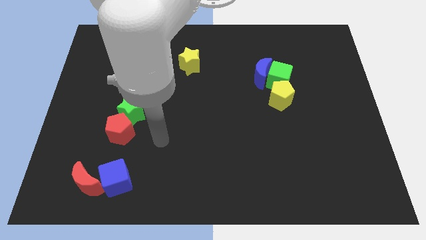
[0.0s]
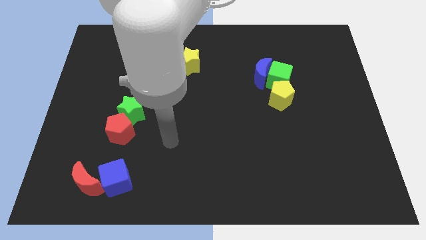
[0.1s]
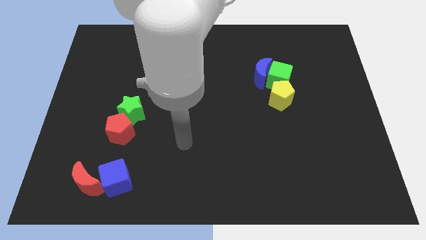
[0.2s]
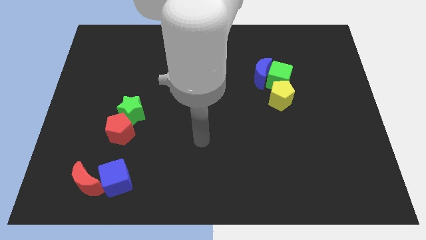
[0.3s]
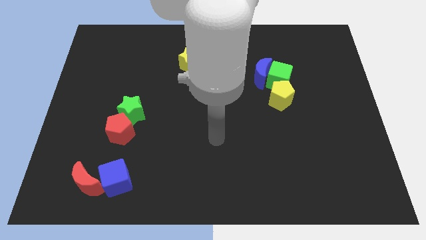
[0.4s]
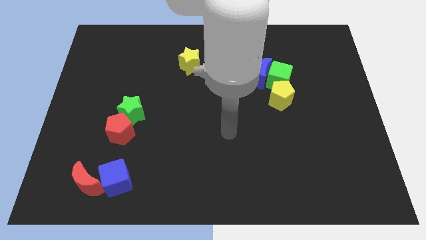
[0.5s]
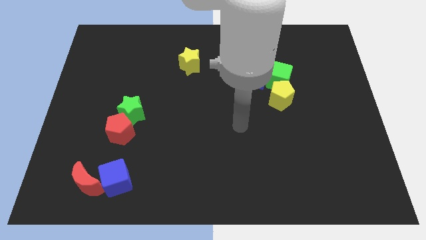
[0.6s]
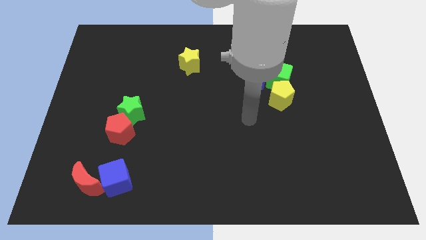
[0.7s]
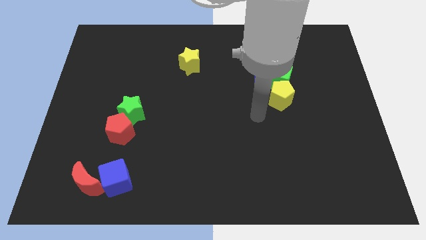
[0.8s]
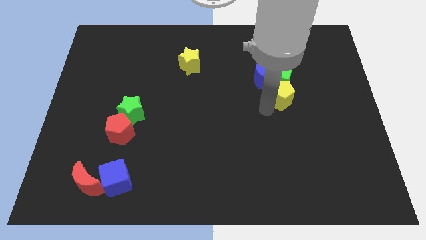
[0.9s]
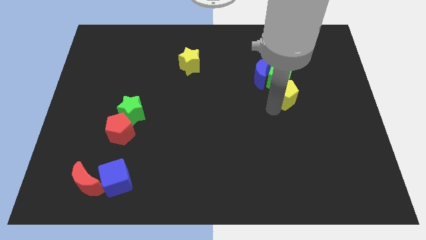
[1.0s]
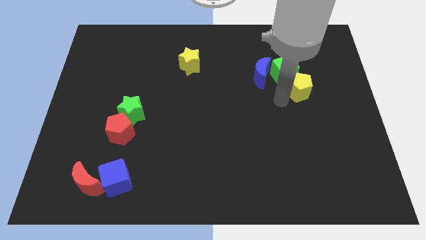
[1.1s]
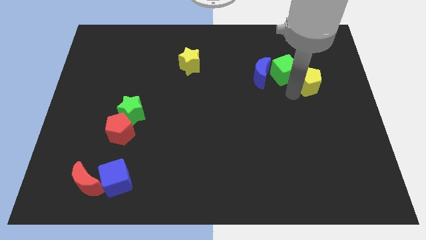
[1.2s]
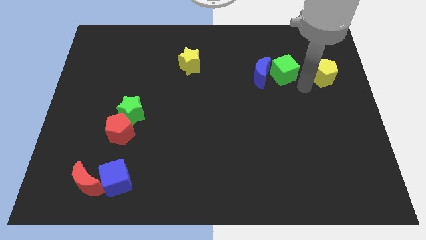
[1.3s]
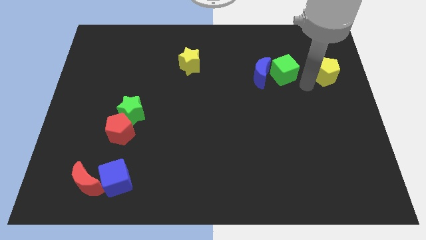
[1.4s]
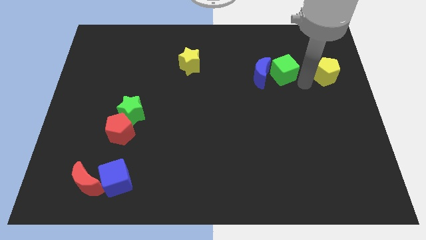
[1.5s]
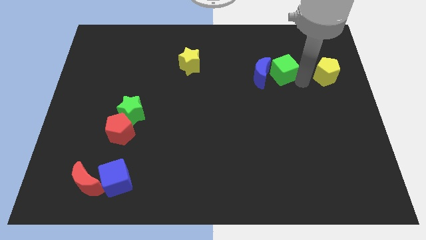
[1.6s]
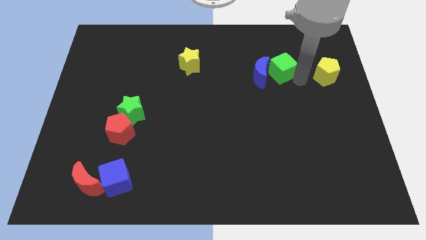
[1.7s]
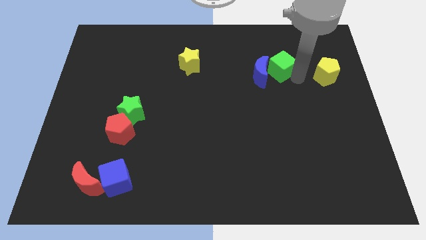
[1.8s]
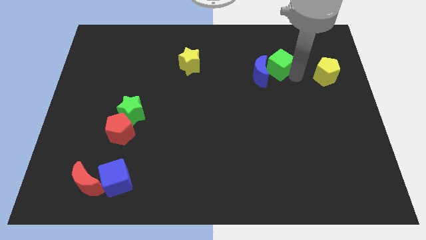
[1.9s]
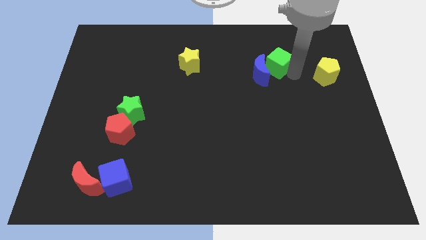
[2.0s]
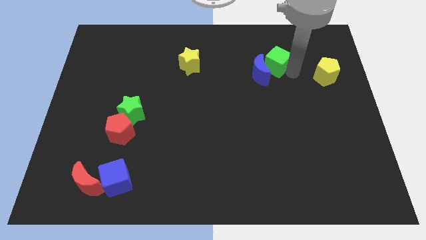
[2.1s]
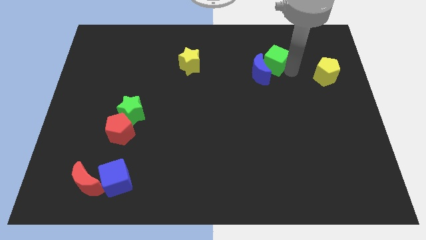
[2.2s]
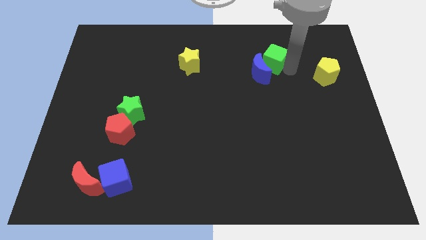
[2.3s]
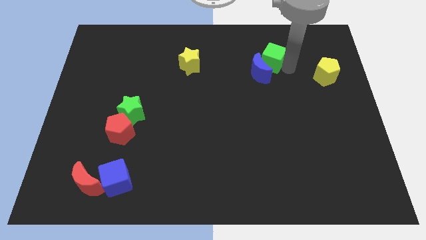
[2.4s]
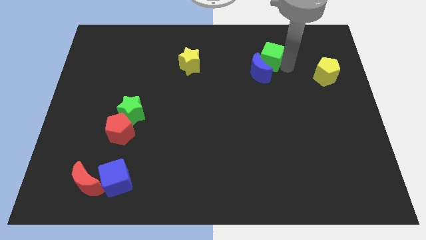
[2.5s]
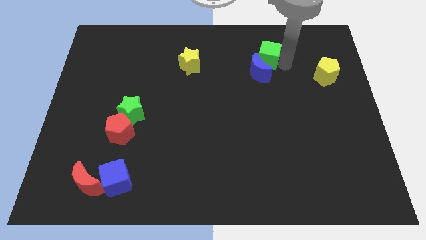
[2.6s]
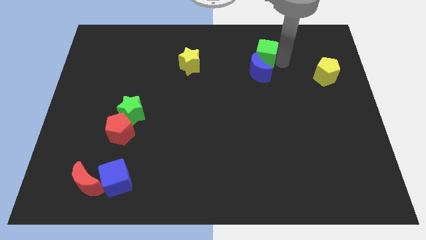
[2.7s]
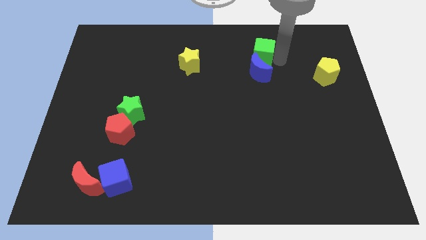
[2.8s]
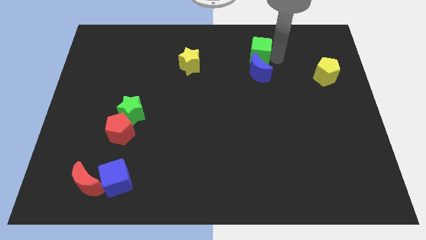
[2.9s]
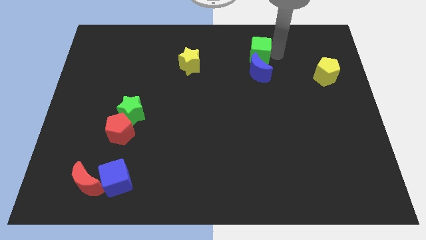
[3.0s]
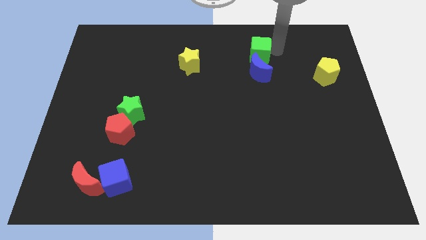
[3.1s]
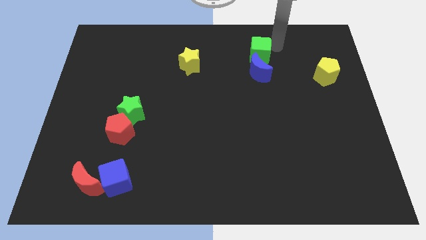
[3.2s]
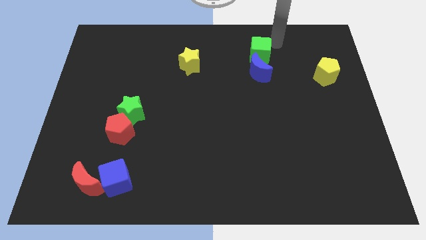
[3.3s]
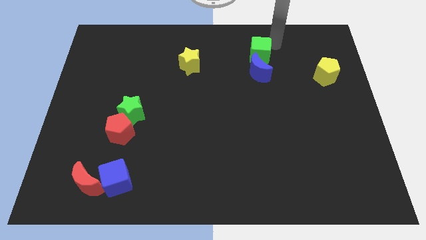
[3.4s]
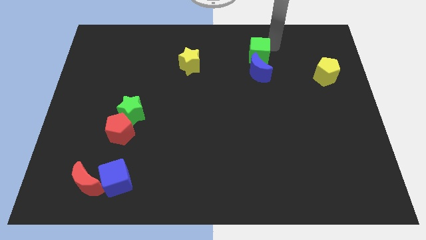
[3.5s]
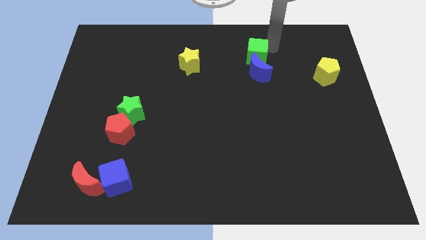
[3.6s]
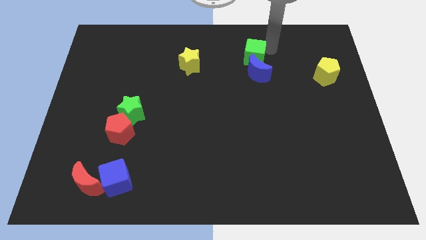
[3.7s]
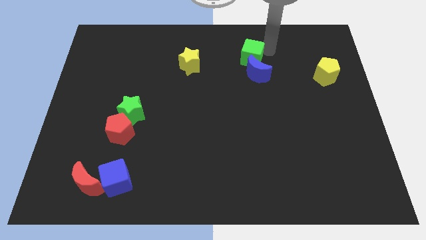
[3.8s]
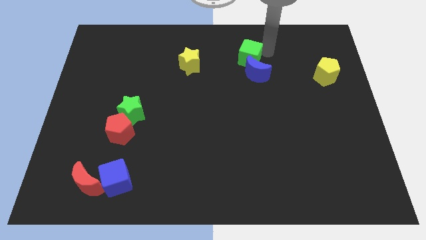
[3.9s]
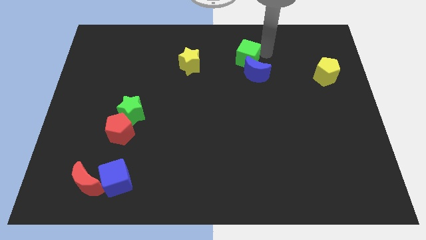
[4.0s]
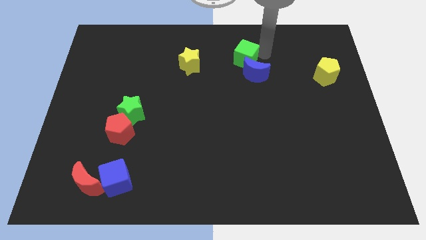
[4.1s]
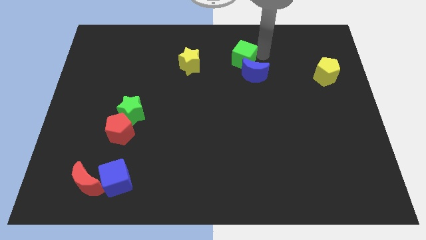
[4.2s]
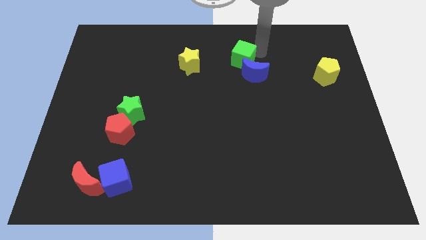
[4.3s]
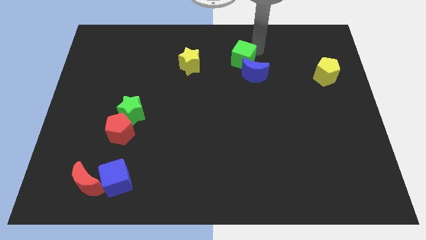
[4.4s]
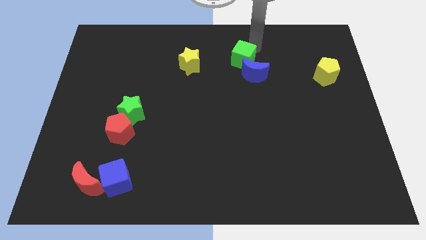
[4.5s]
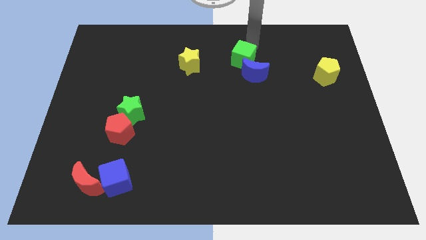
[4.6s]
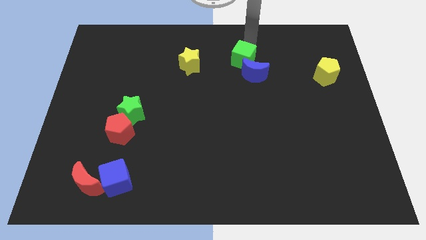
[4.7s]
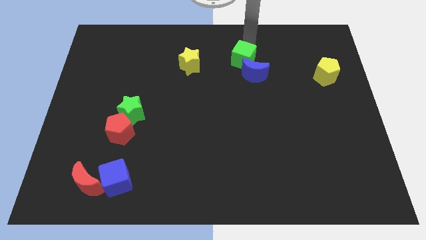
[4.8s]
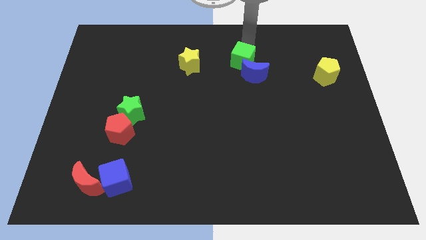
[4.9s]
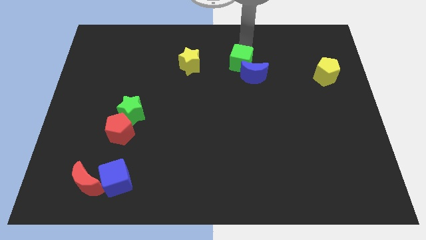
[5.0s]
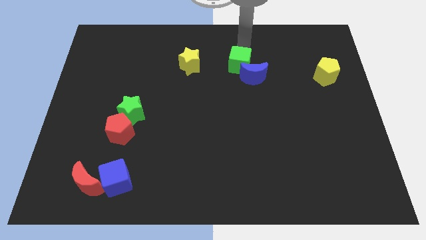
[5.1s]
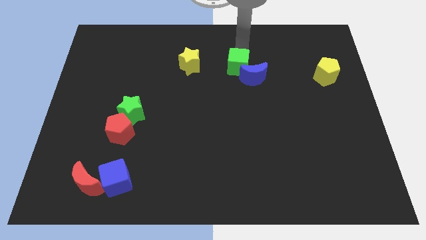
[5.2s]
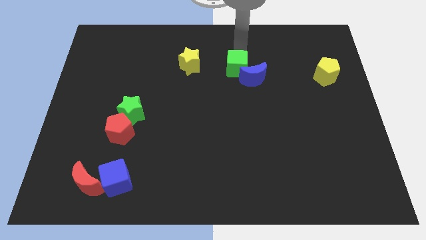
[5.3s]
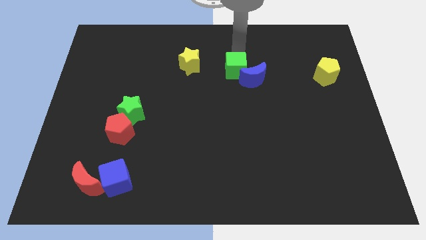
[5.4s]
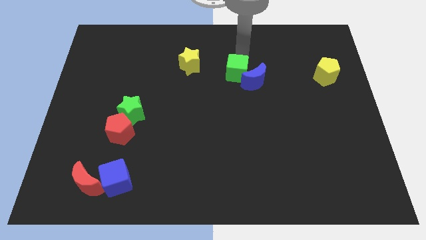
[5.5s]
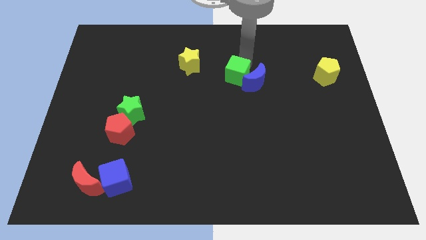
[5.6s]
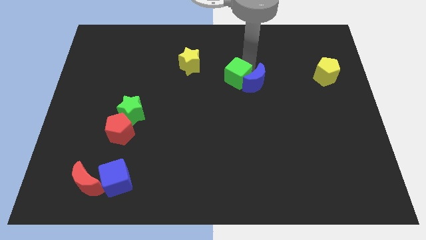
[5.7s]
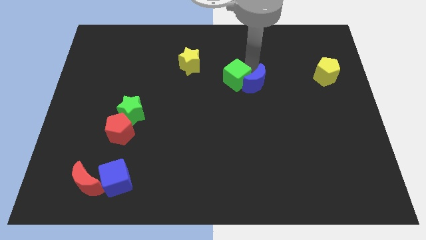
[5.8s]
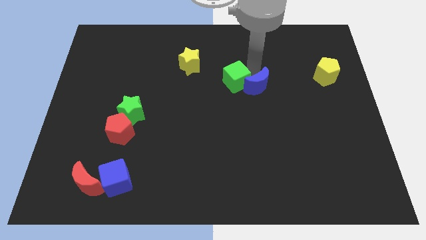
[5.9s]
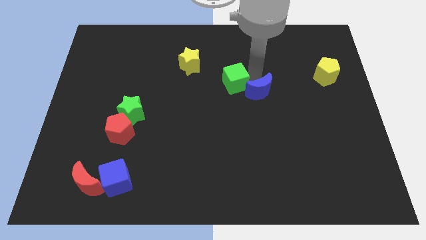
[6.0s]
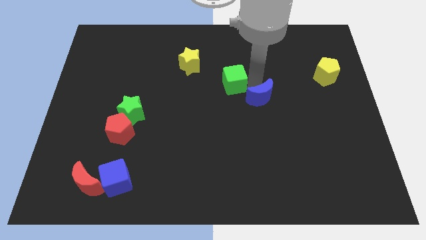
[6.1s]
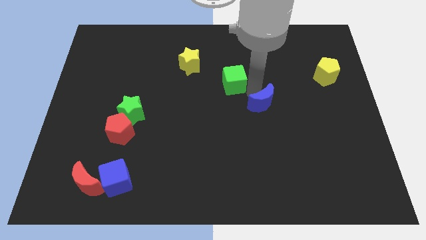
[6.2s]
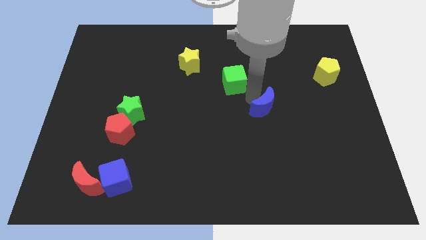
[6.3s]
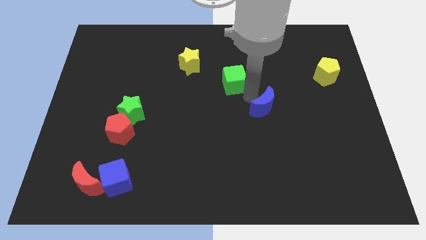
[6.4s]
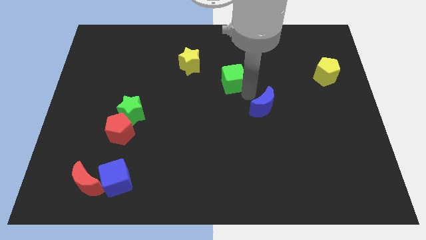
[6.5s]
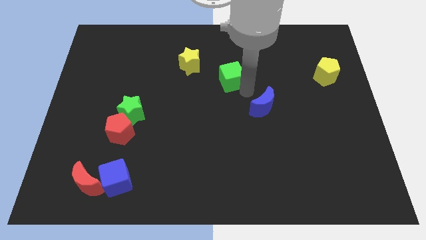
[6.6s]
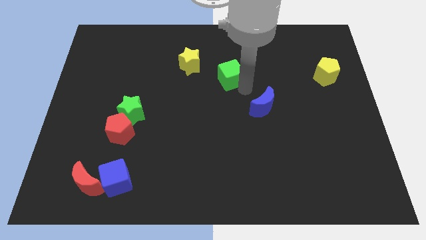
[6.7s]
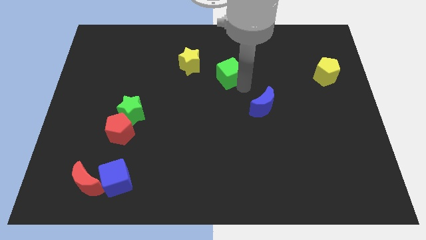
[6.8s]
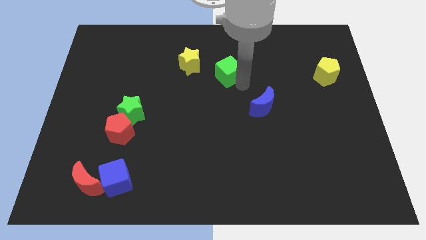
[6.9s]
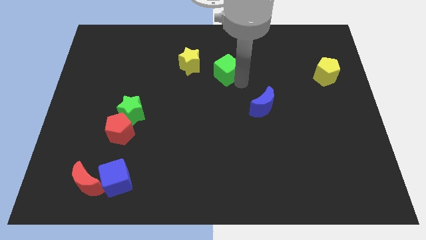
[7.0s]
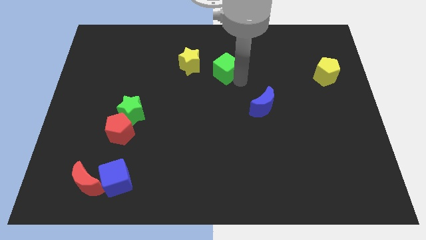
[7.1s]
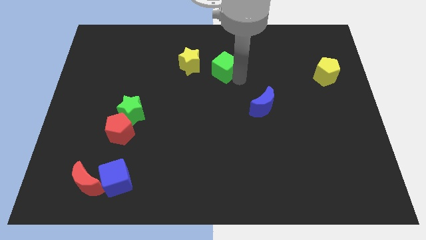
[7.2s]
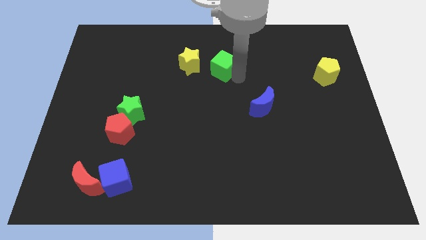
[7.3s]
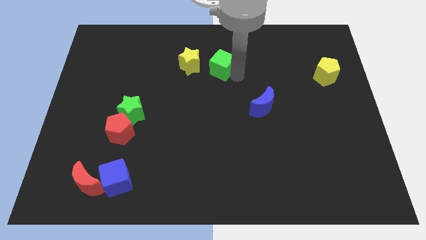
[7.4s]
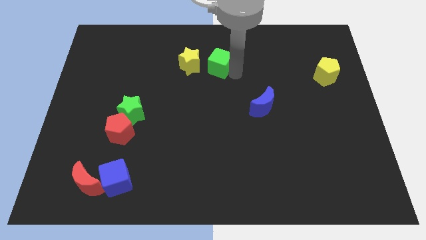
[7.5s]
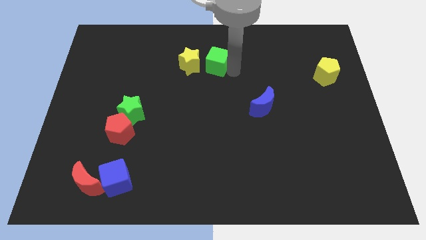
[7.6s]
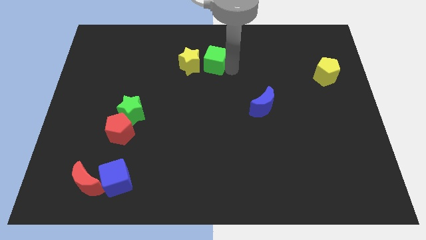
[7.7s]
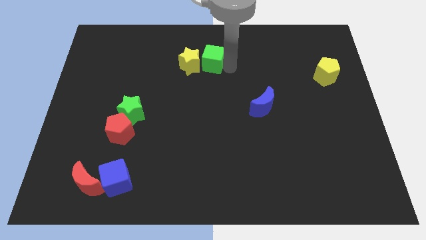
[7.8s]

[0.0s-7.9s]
slide the green cube towards the yellow star
